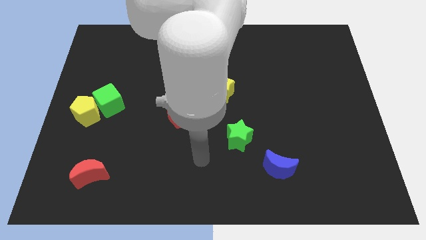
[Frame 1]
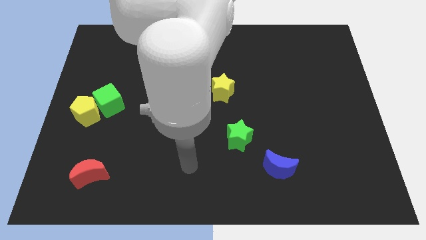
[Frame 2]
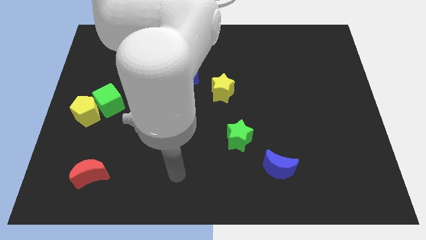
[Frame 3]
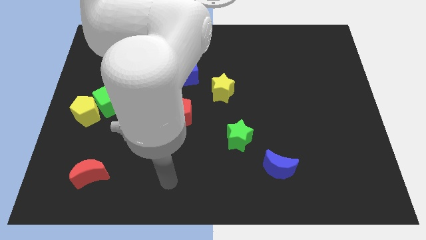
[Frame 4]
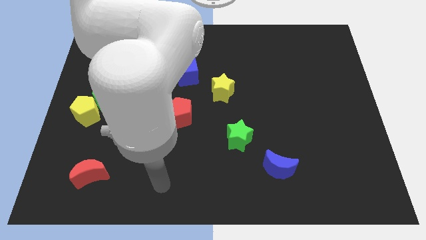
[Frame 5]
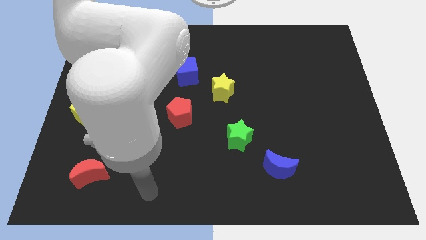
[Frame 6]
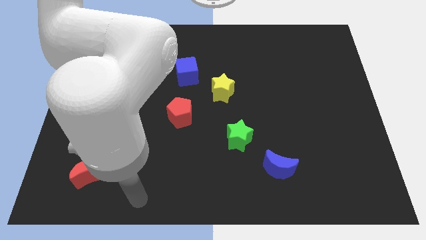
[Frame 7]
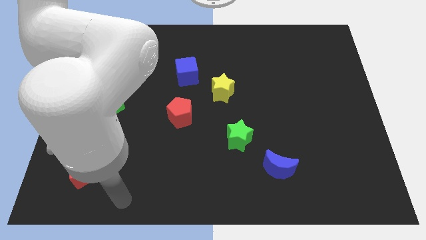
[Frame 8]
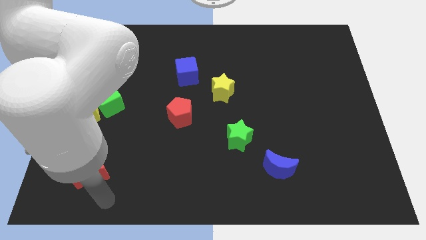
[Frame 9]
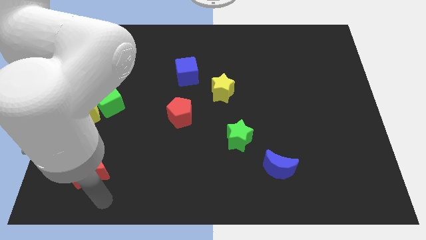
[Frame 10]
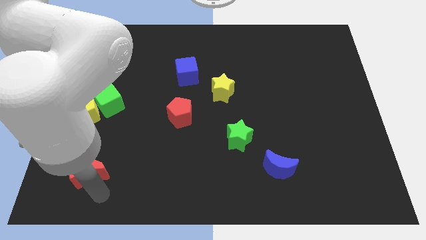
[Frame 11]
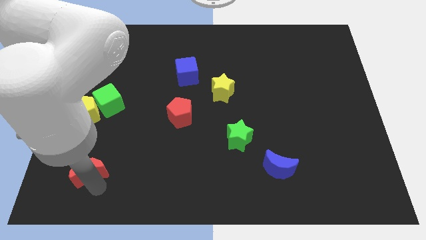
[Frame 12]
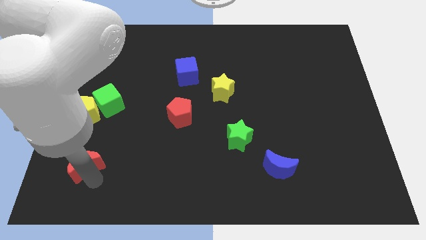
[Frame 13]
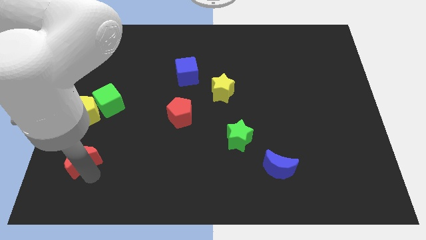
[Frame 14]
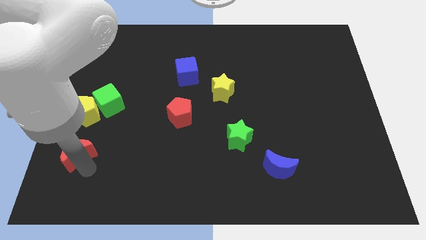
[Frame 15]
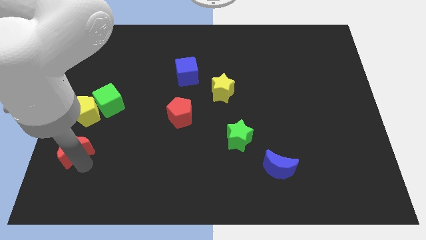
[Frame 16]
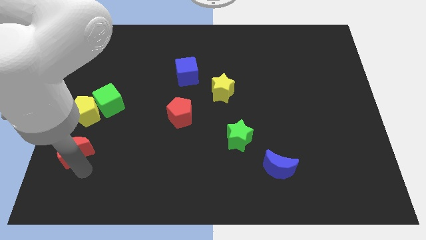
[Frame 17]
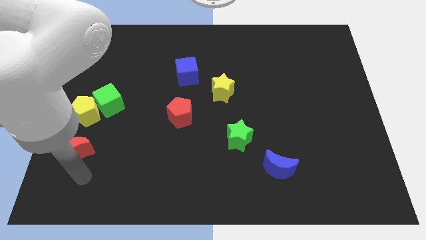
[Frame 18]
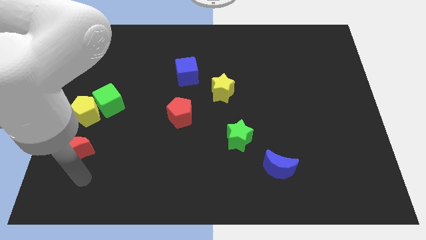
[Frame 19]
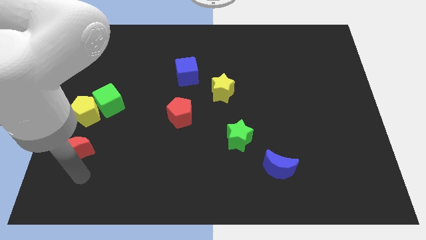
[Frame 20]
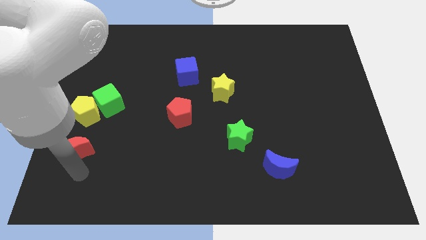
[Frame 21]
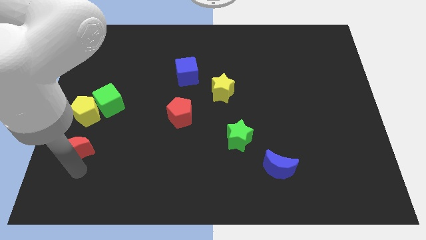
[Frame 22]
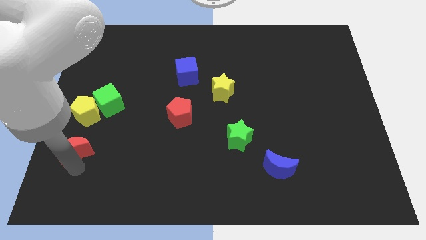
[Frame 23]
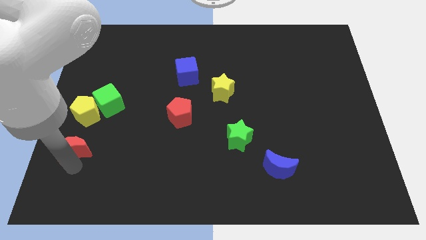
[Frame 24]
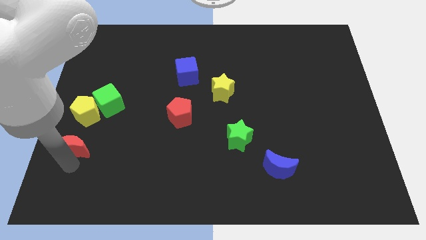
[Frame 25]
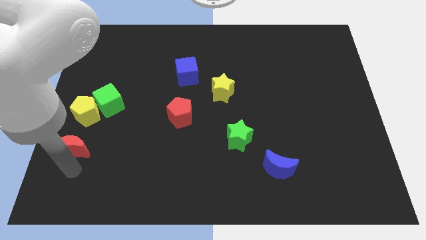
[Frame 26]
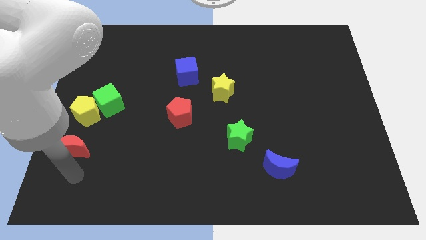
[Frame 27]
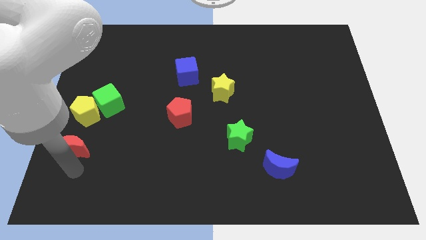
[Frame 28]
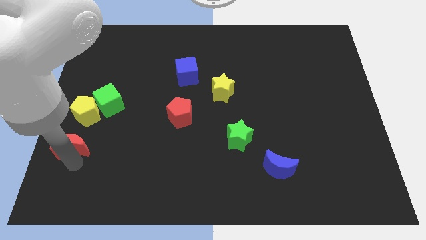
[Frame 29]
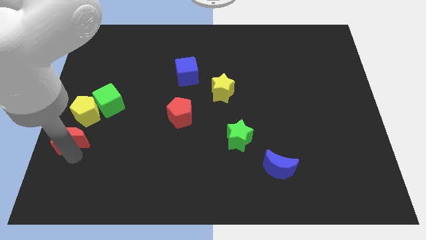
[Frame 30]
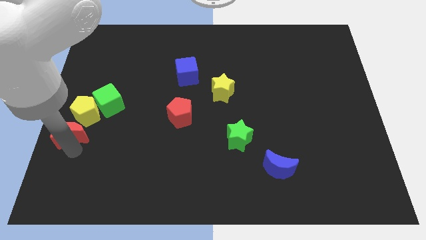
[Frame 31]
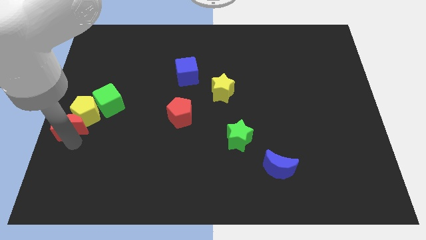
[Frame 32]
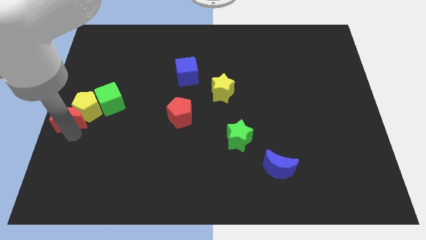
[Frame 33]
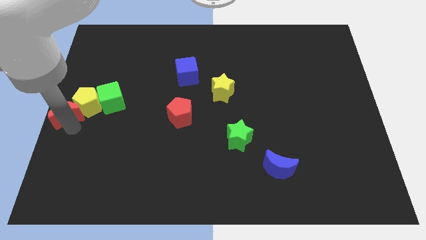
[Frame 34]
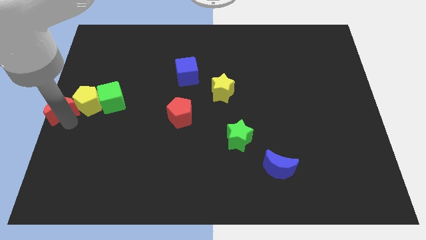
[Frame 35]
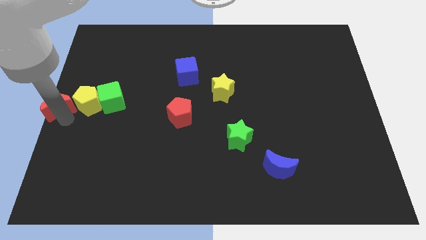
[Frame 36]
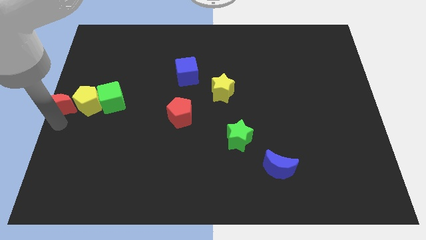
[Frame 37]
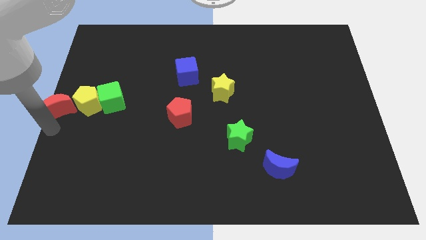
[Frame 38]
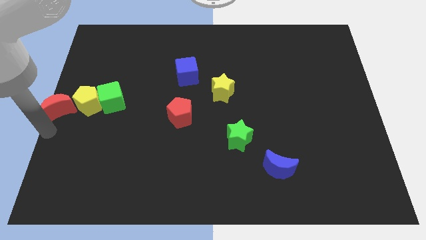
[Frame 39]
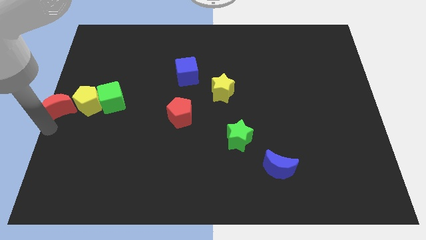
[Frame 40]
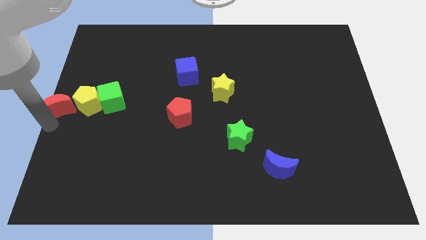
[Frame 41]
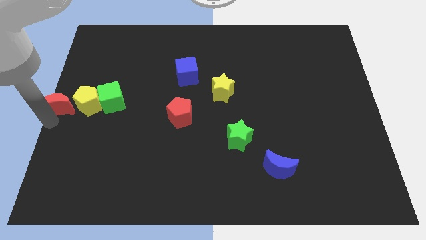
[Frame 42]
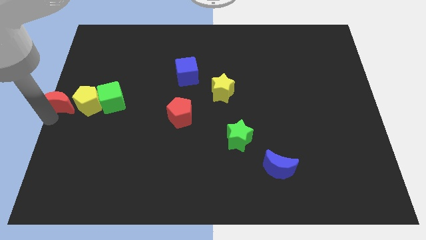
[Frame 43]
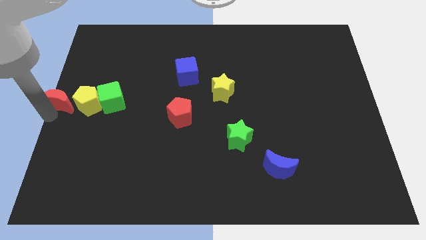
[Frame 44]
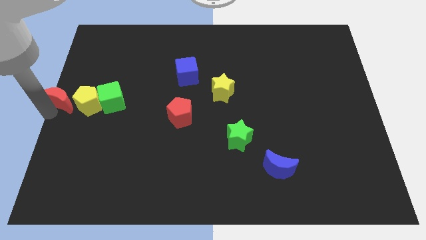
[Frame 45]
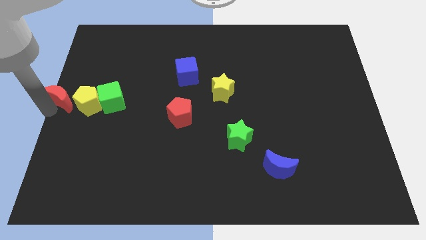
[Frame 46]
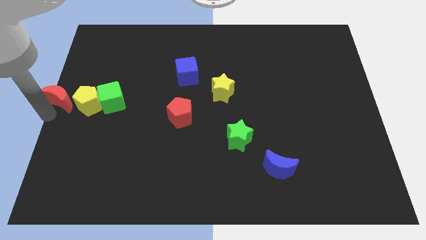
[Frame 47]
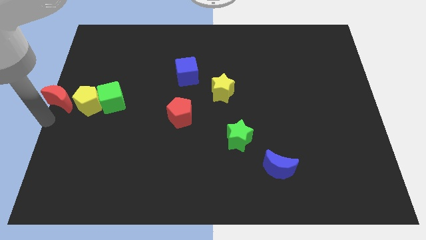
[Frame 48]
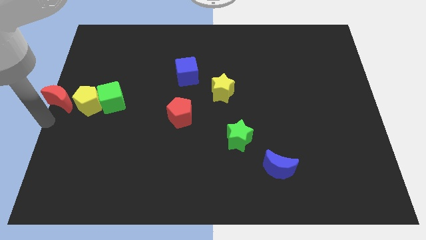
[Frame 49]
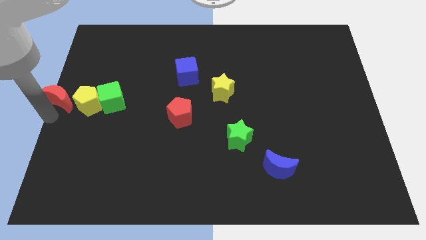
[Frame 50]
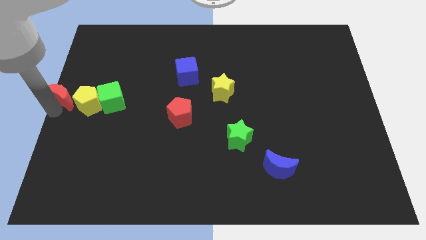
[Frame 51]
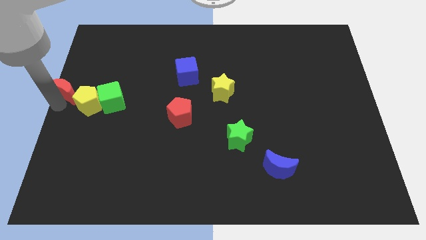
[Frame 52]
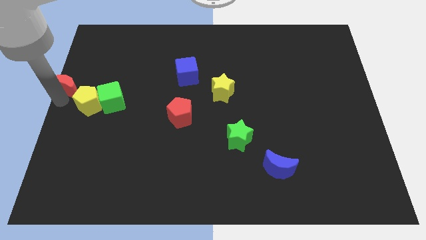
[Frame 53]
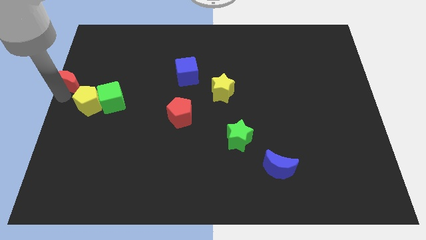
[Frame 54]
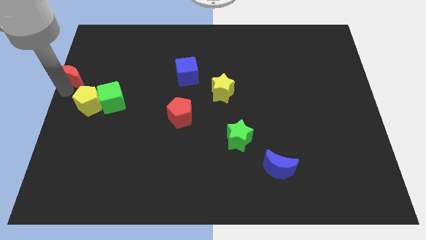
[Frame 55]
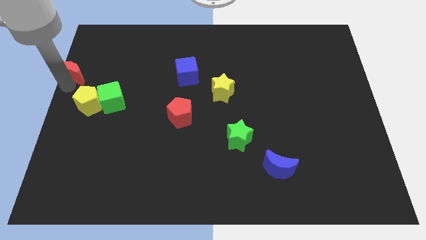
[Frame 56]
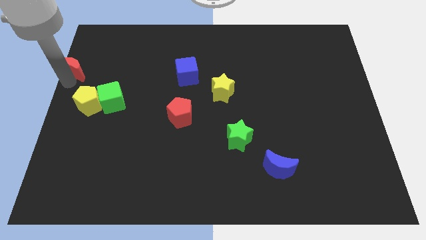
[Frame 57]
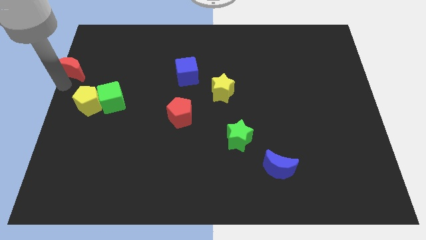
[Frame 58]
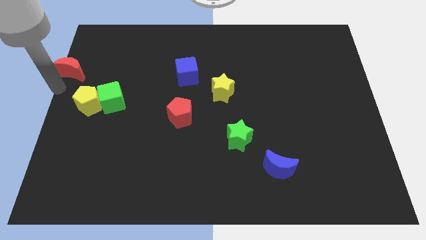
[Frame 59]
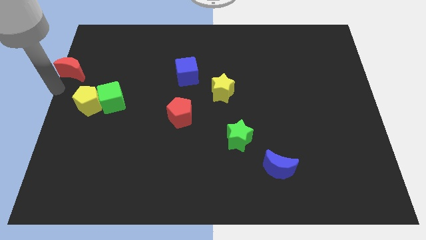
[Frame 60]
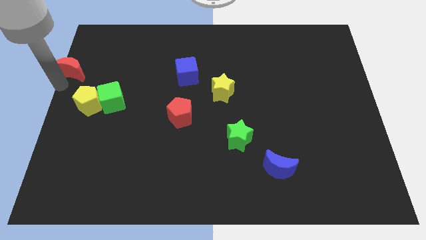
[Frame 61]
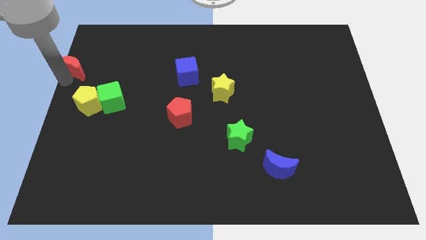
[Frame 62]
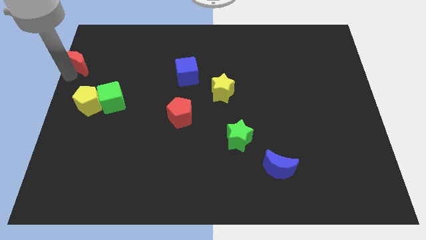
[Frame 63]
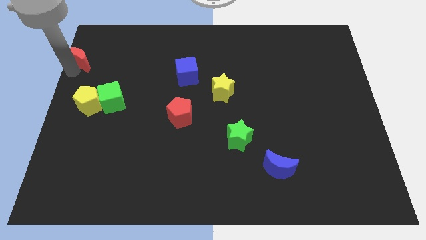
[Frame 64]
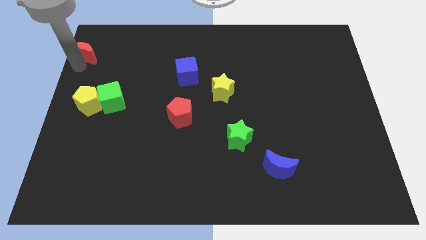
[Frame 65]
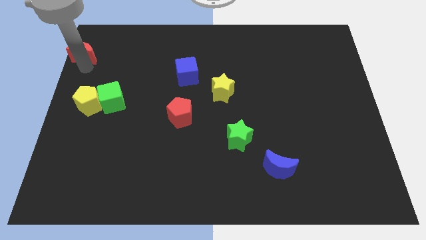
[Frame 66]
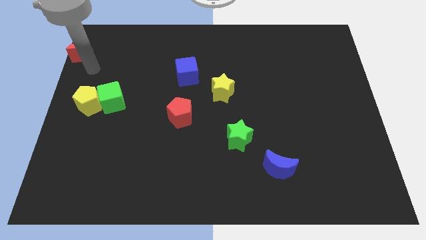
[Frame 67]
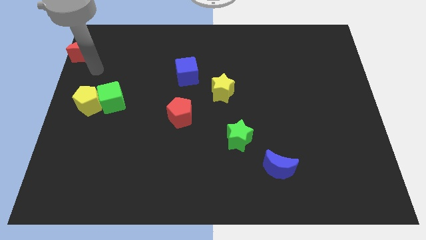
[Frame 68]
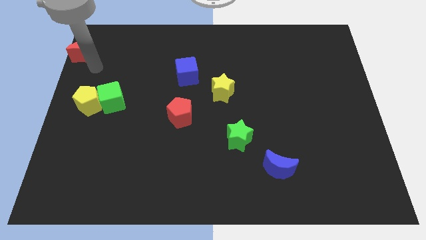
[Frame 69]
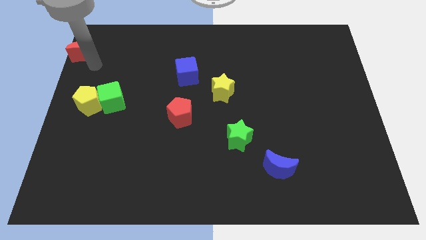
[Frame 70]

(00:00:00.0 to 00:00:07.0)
push the red moon to the upper left corner

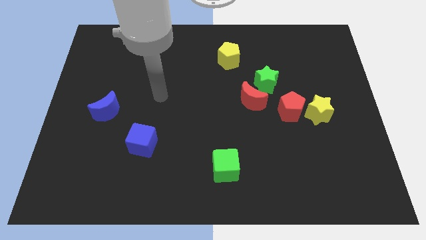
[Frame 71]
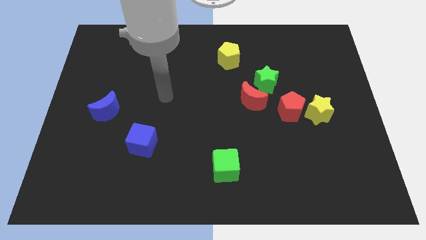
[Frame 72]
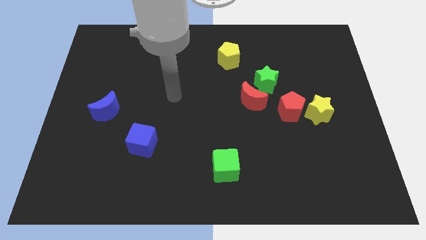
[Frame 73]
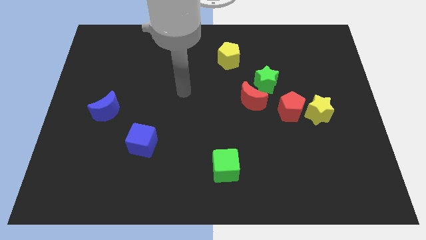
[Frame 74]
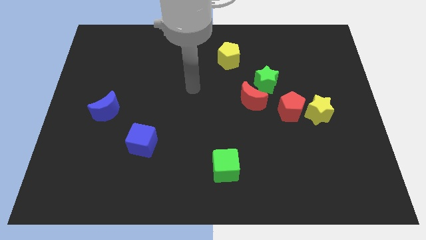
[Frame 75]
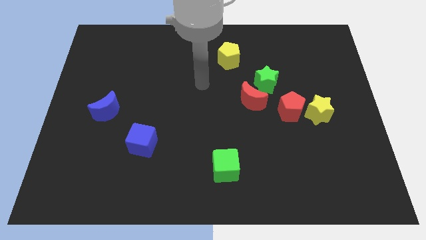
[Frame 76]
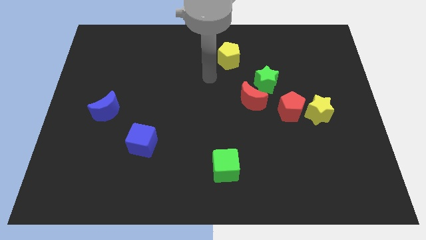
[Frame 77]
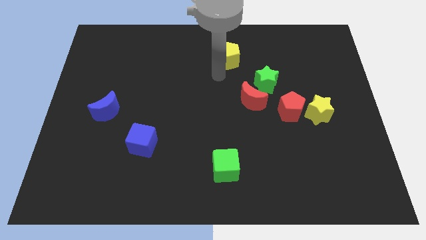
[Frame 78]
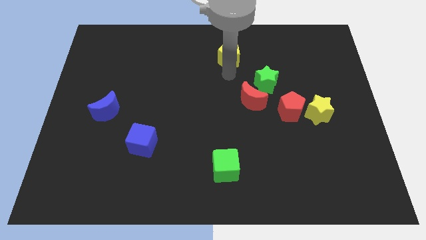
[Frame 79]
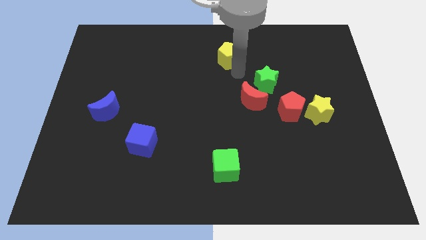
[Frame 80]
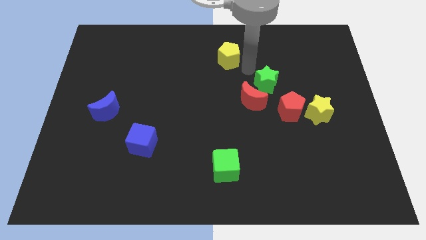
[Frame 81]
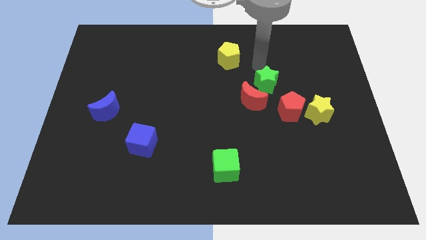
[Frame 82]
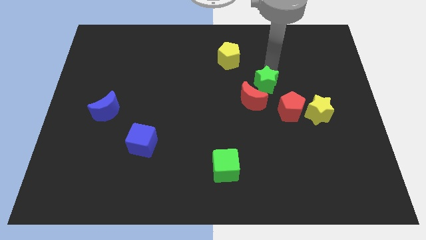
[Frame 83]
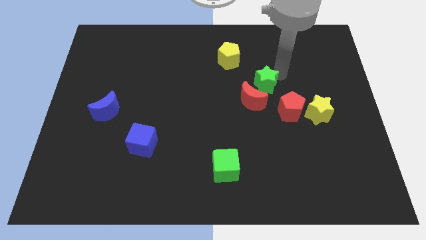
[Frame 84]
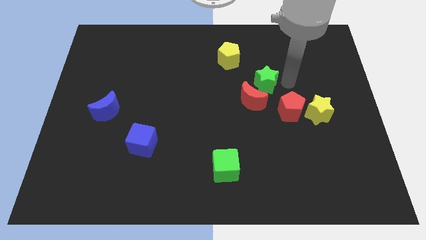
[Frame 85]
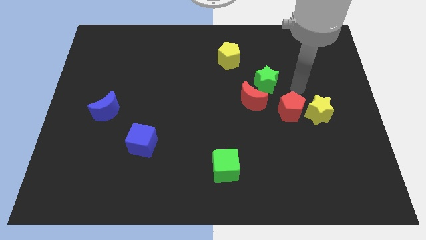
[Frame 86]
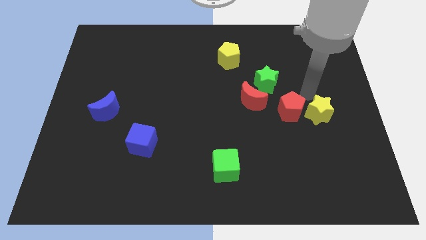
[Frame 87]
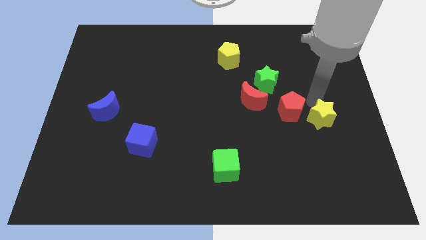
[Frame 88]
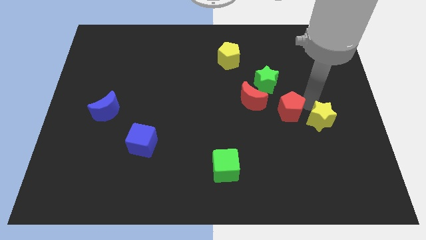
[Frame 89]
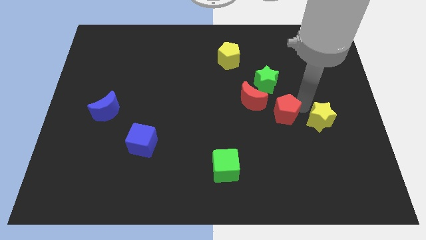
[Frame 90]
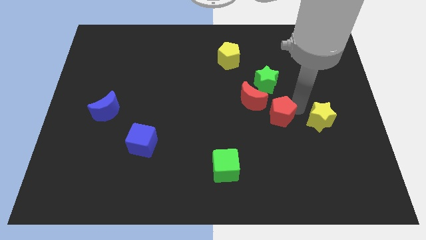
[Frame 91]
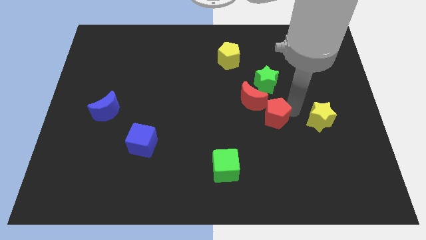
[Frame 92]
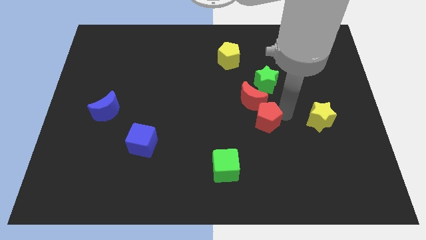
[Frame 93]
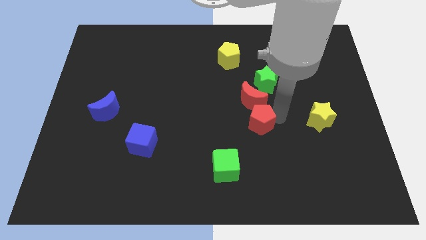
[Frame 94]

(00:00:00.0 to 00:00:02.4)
push the red pentagon to the center
